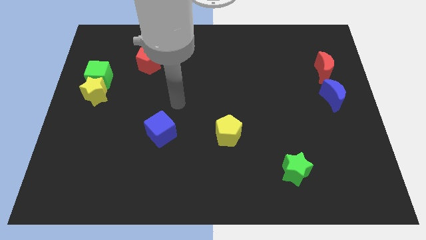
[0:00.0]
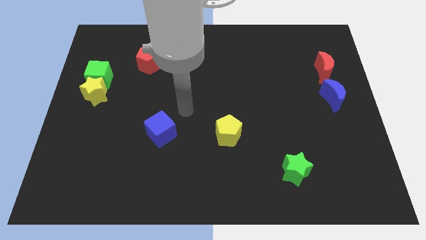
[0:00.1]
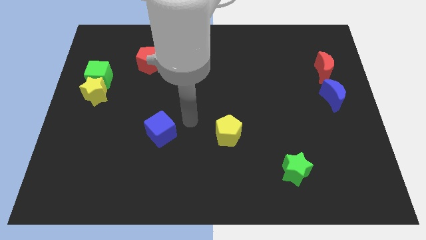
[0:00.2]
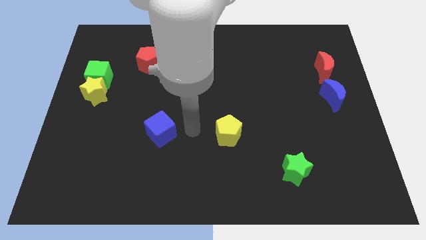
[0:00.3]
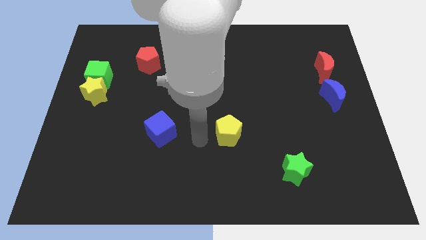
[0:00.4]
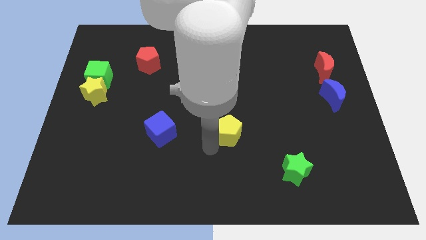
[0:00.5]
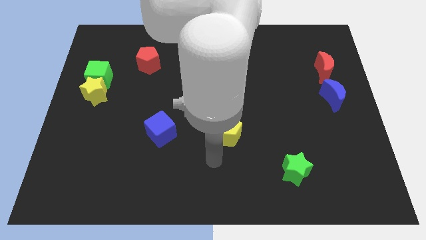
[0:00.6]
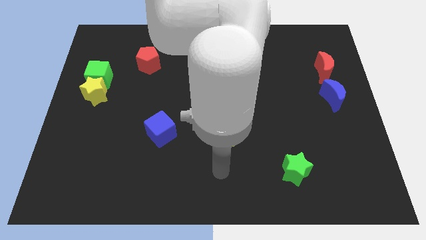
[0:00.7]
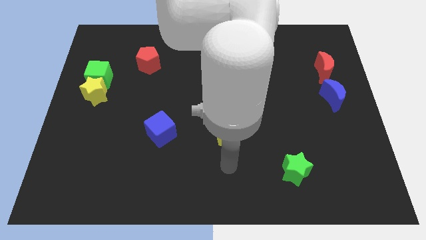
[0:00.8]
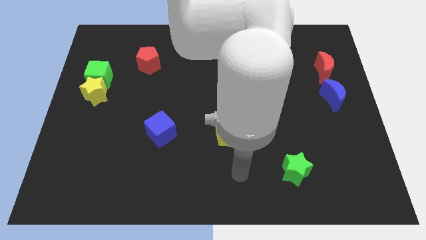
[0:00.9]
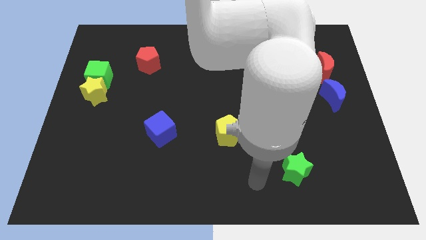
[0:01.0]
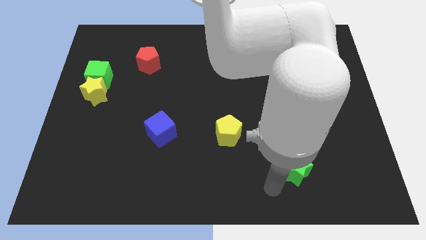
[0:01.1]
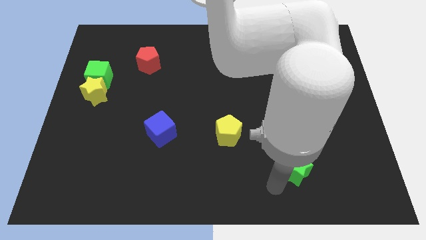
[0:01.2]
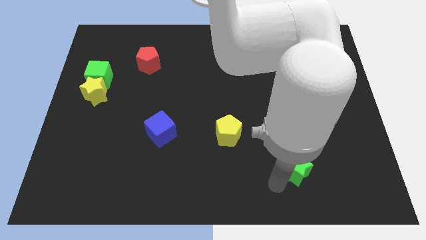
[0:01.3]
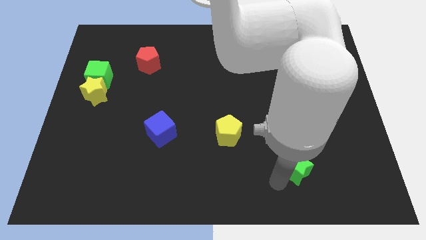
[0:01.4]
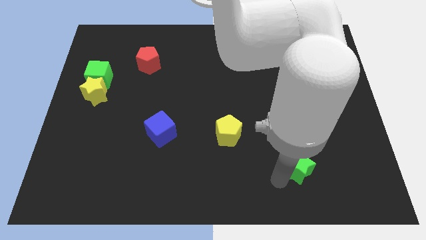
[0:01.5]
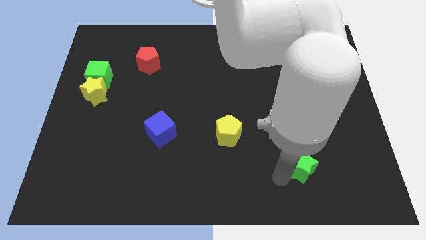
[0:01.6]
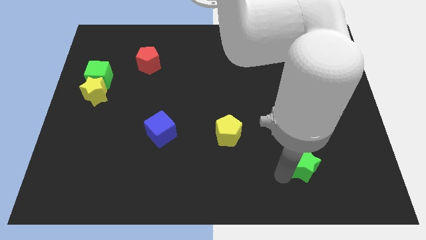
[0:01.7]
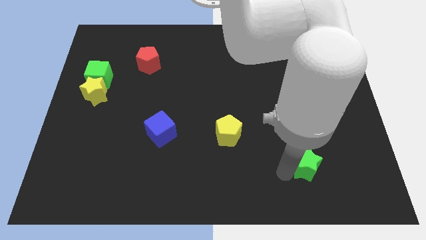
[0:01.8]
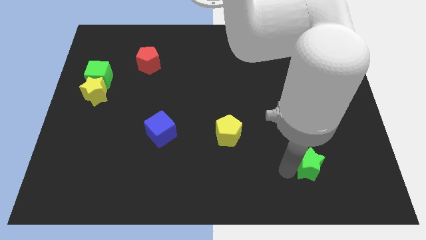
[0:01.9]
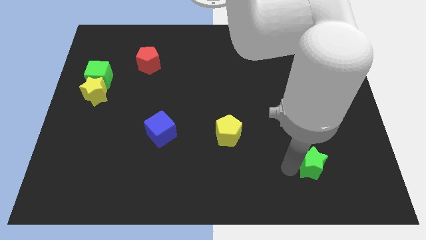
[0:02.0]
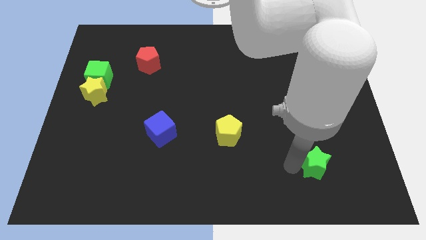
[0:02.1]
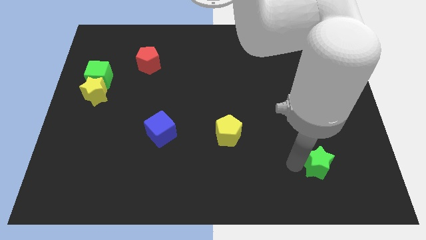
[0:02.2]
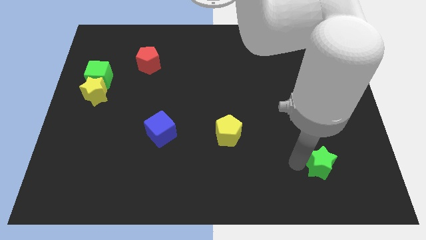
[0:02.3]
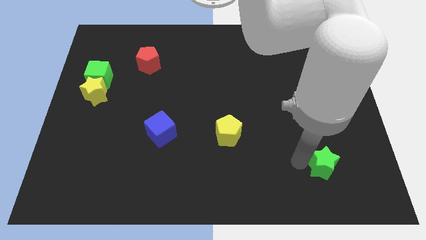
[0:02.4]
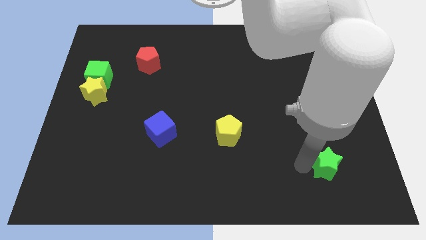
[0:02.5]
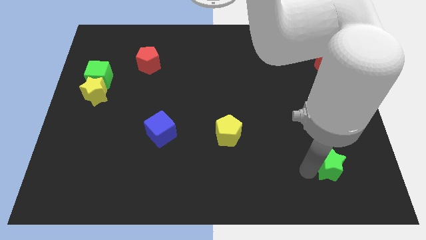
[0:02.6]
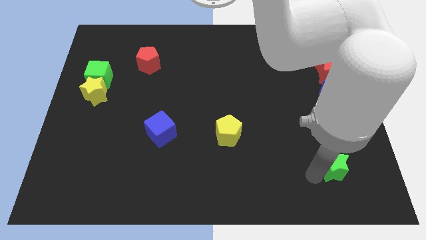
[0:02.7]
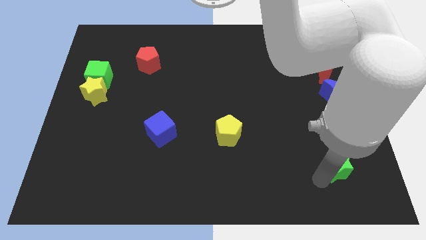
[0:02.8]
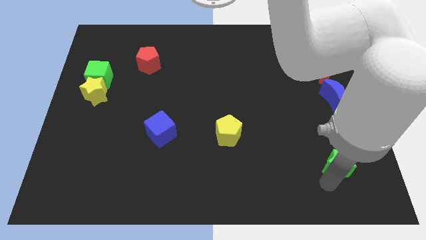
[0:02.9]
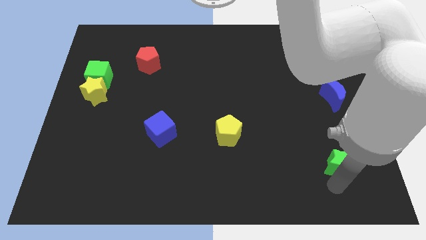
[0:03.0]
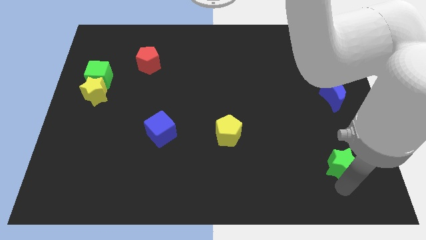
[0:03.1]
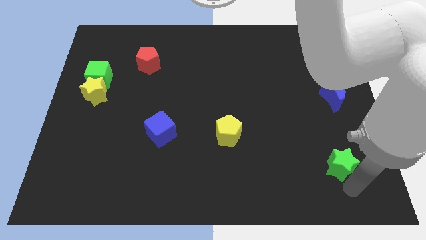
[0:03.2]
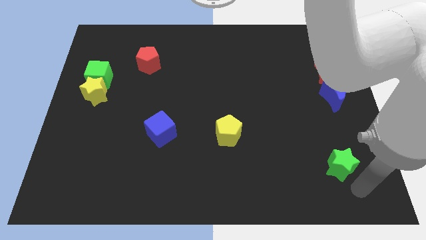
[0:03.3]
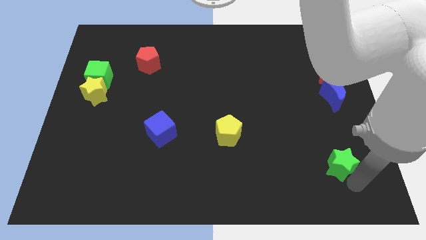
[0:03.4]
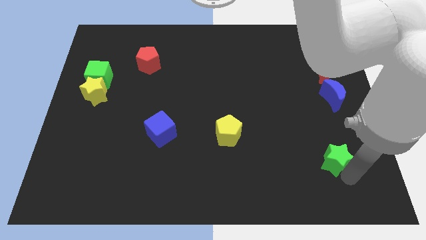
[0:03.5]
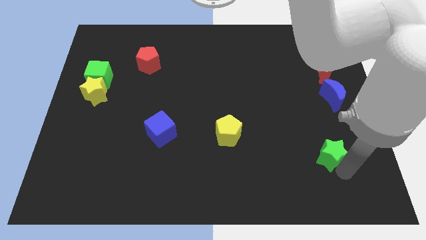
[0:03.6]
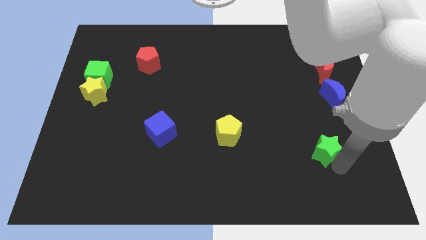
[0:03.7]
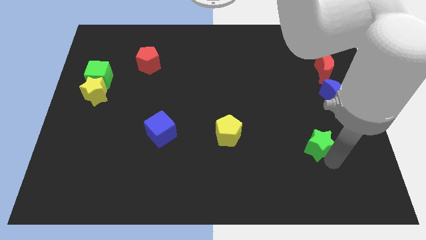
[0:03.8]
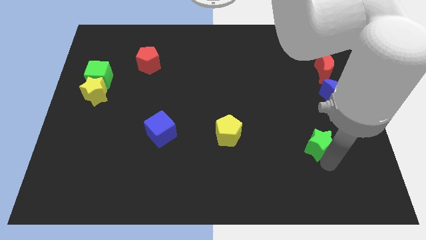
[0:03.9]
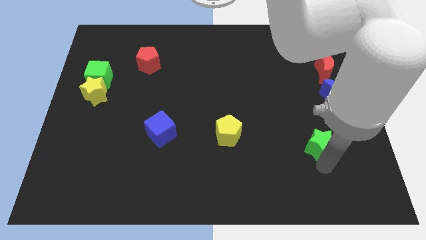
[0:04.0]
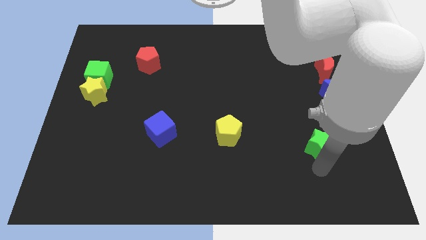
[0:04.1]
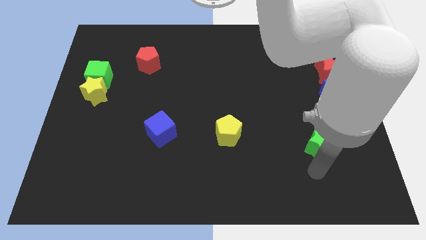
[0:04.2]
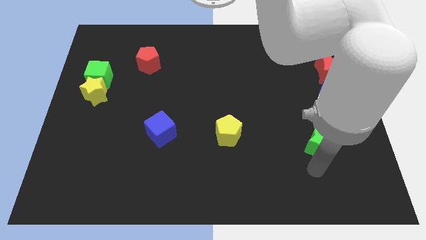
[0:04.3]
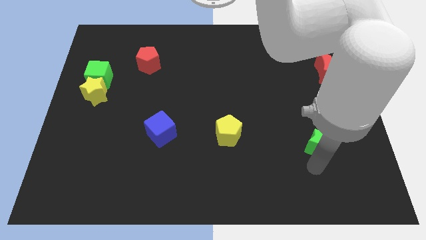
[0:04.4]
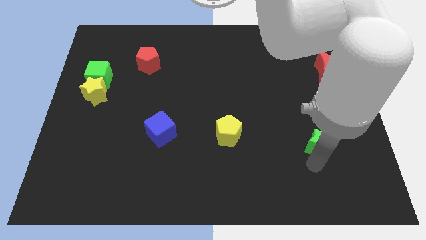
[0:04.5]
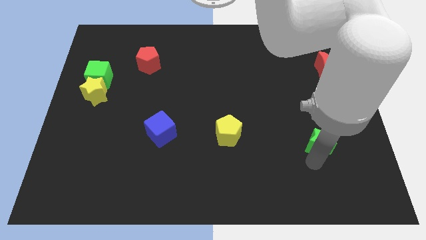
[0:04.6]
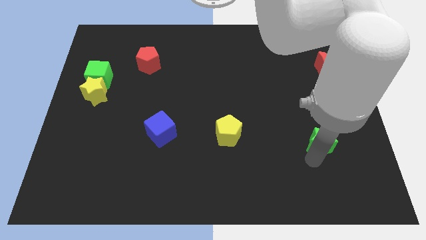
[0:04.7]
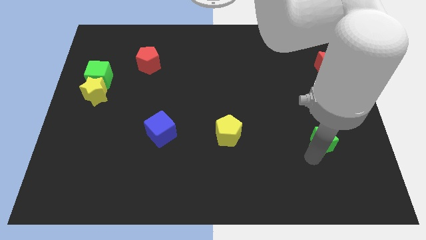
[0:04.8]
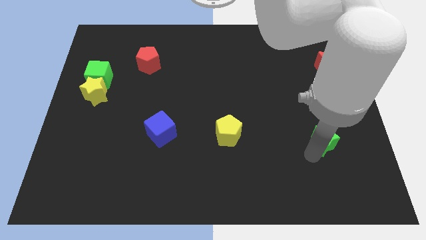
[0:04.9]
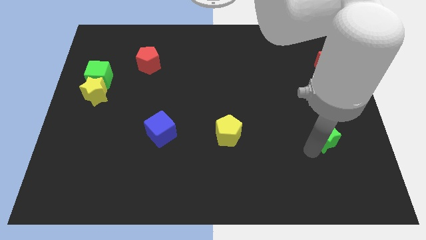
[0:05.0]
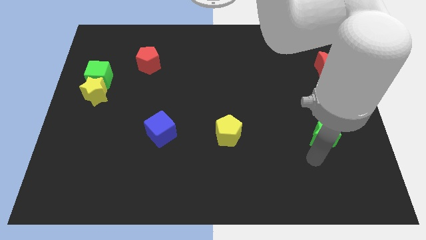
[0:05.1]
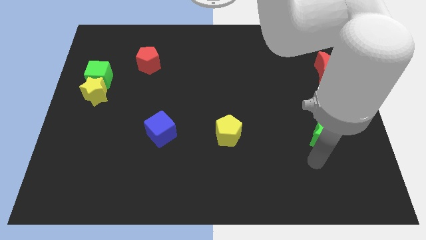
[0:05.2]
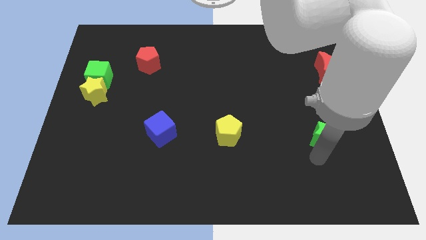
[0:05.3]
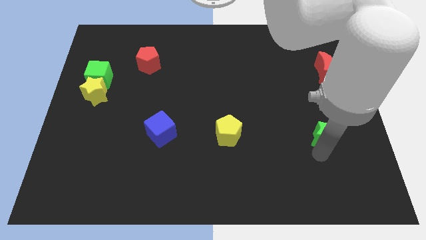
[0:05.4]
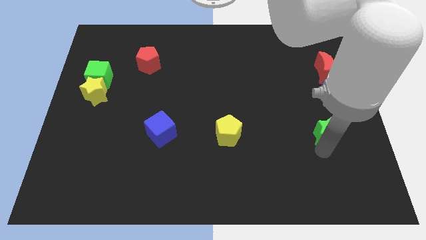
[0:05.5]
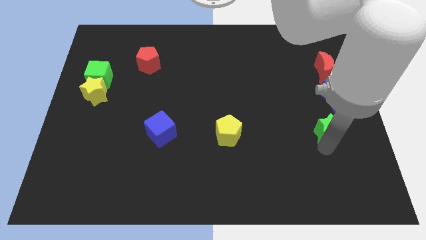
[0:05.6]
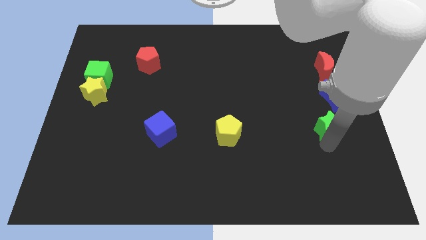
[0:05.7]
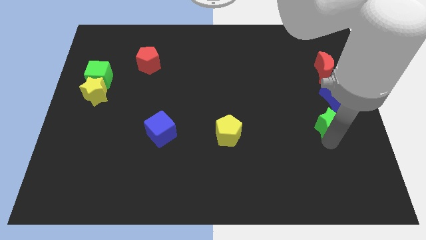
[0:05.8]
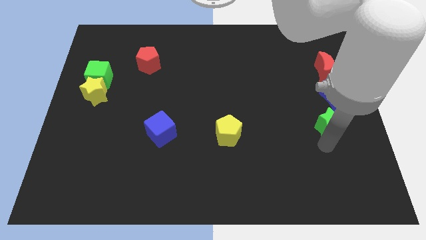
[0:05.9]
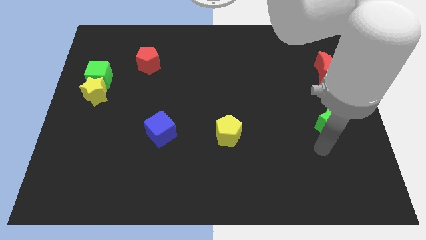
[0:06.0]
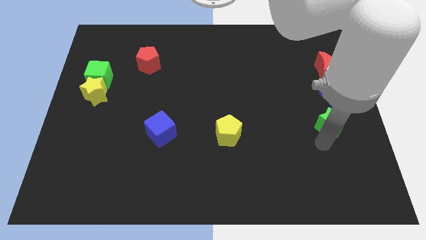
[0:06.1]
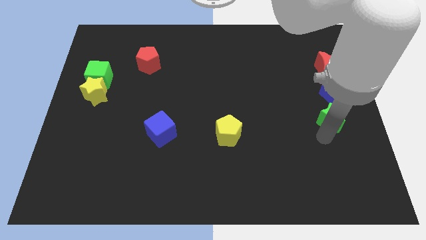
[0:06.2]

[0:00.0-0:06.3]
move the green star below the red moon

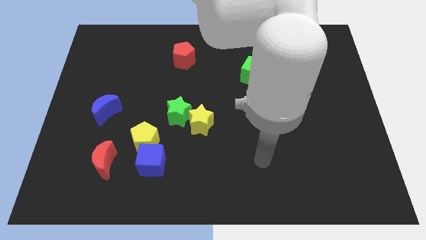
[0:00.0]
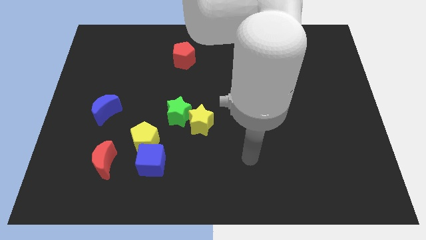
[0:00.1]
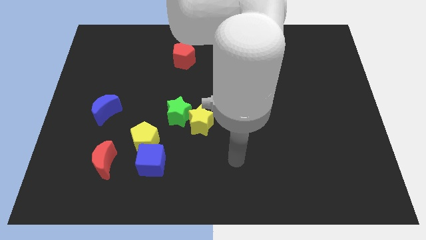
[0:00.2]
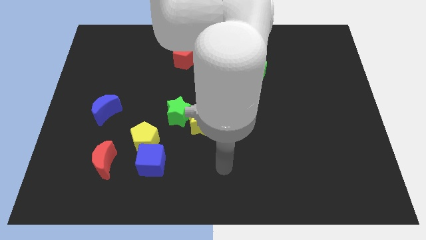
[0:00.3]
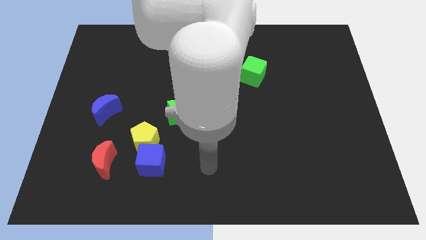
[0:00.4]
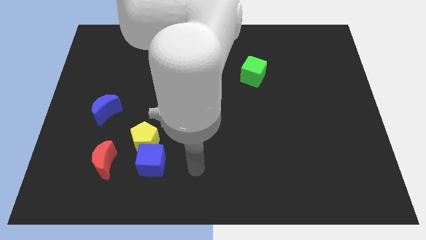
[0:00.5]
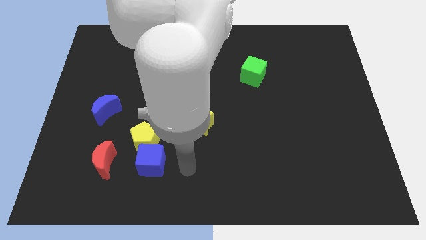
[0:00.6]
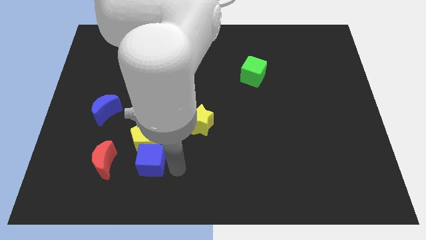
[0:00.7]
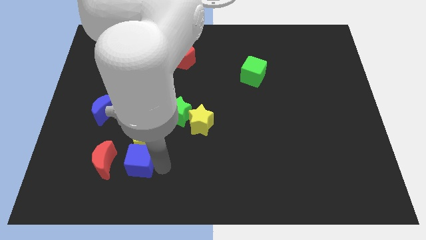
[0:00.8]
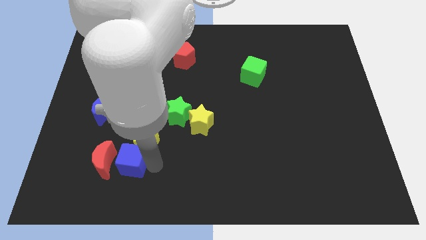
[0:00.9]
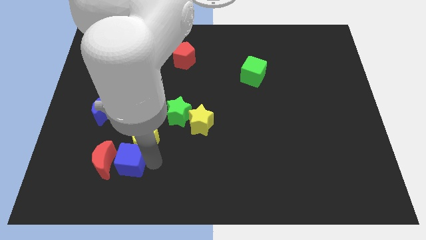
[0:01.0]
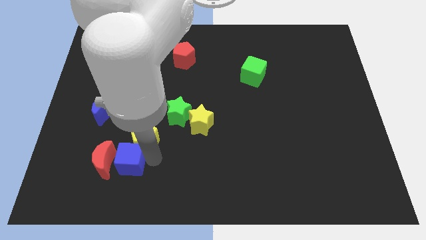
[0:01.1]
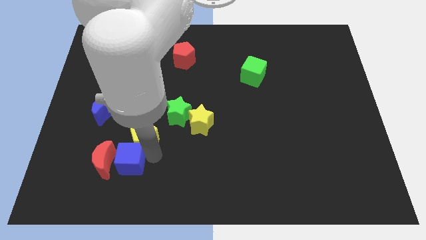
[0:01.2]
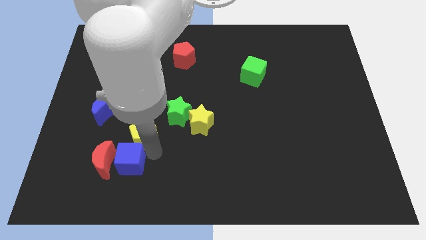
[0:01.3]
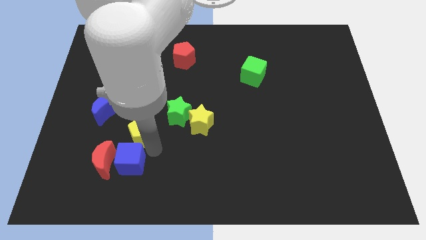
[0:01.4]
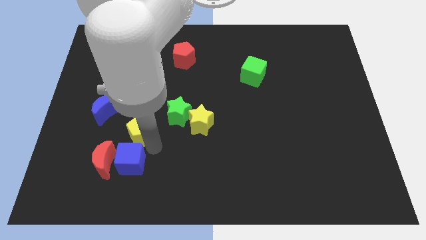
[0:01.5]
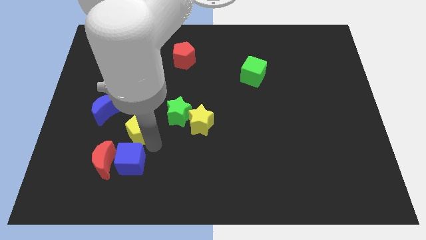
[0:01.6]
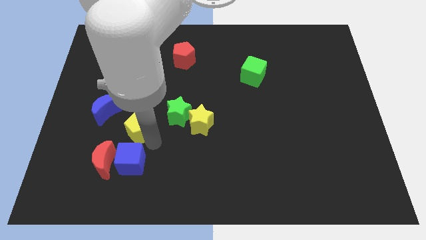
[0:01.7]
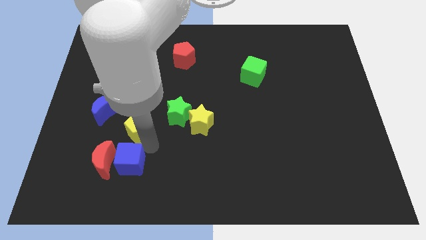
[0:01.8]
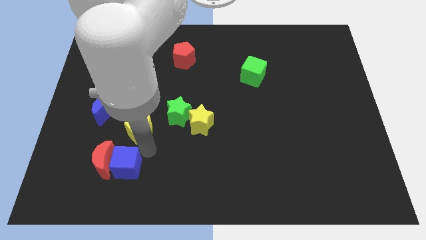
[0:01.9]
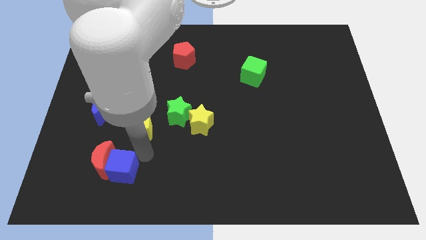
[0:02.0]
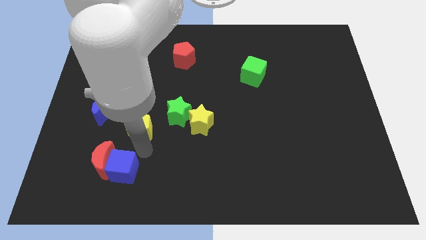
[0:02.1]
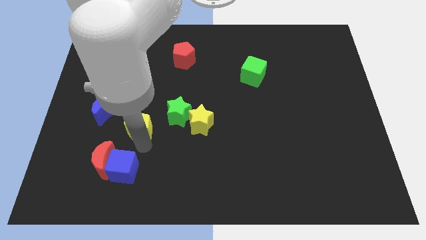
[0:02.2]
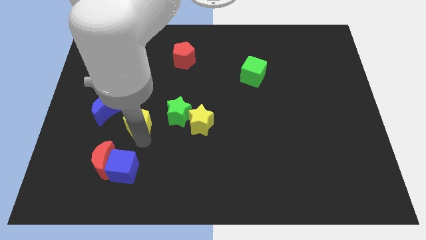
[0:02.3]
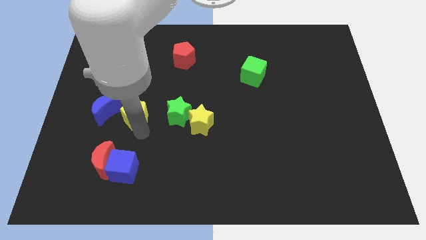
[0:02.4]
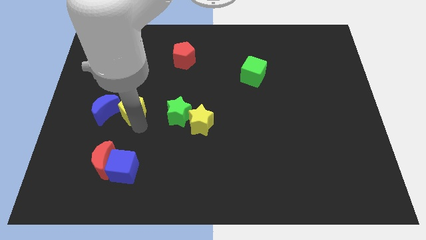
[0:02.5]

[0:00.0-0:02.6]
slide the yellow pentagon diagonally up and to the right of the blue moon
